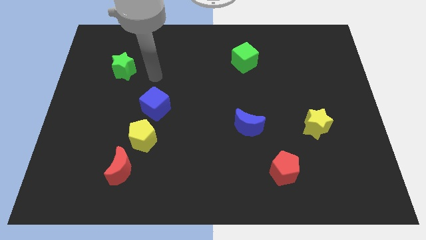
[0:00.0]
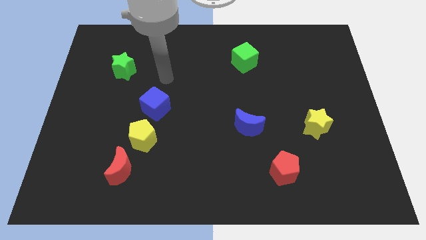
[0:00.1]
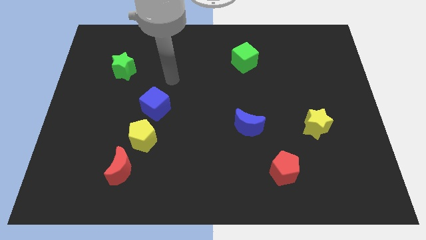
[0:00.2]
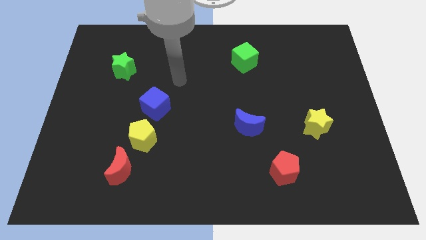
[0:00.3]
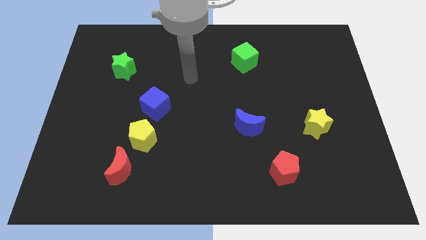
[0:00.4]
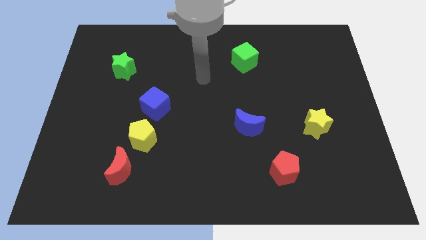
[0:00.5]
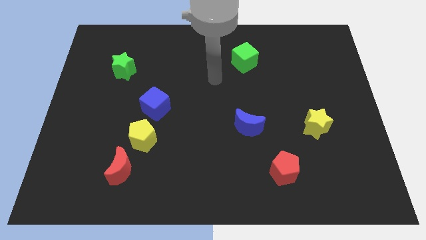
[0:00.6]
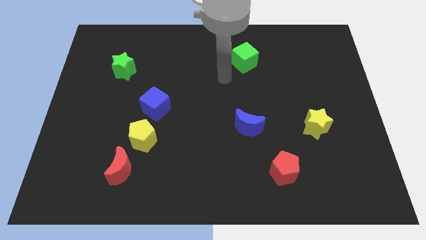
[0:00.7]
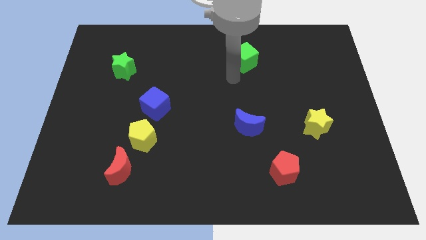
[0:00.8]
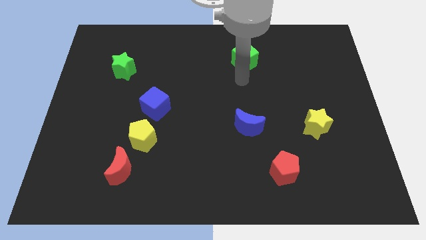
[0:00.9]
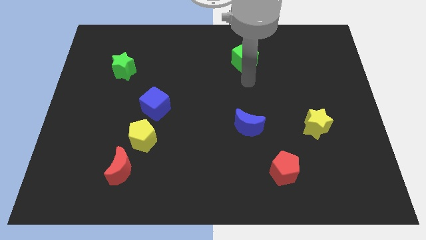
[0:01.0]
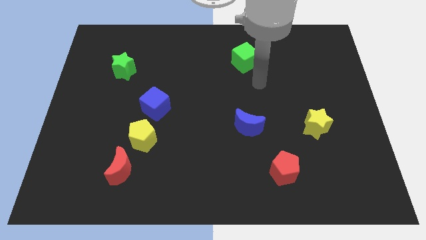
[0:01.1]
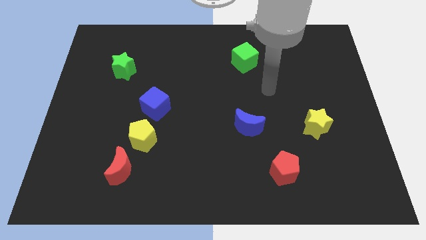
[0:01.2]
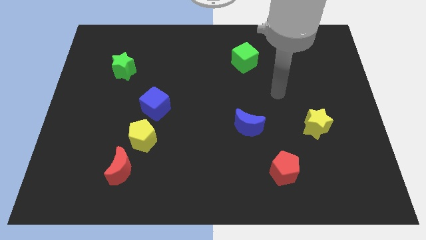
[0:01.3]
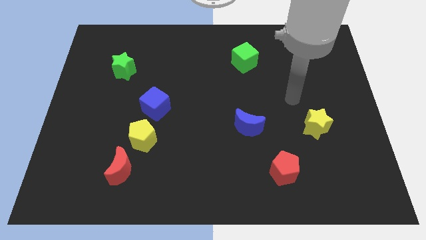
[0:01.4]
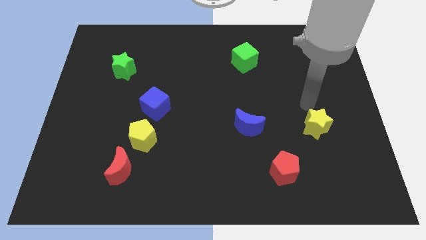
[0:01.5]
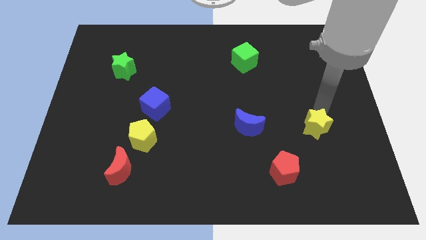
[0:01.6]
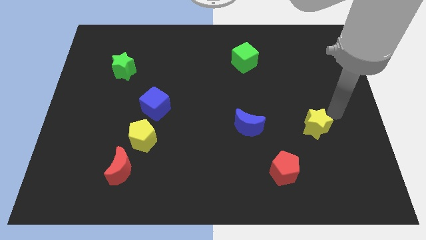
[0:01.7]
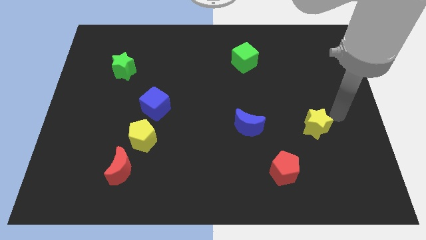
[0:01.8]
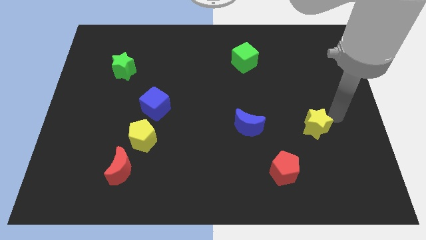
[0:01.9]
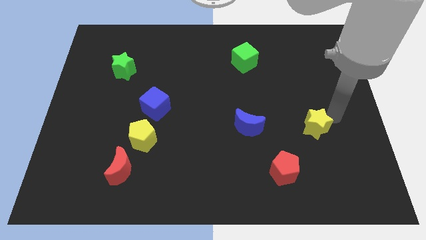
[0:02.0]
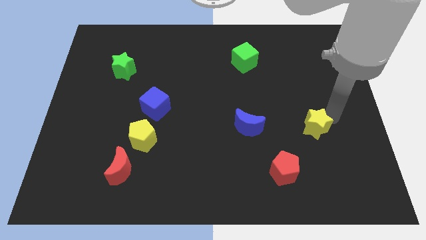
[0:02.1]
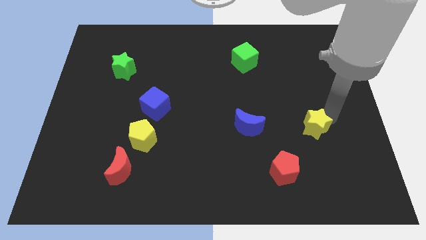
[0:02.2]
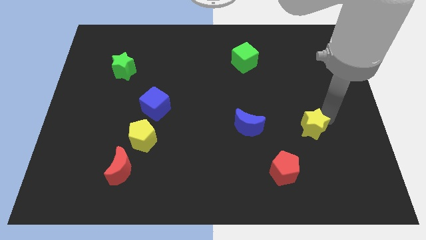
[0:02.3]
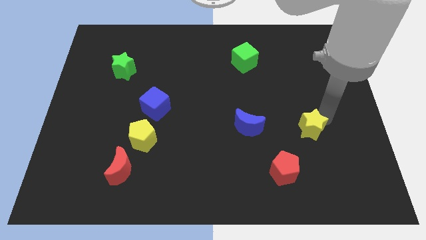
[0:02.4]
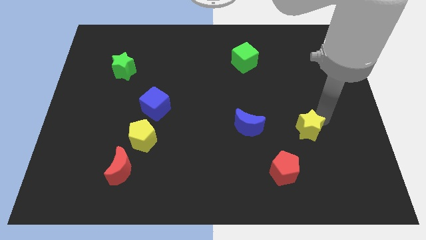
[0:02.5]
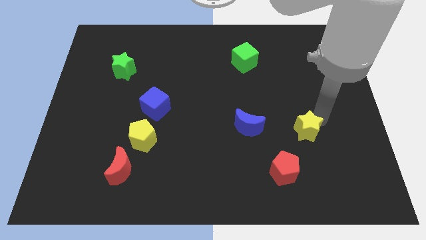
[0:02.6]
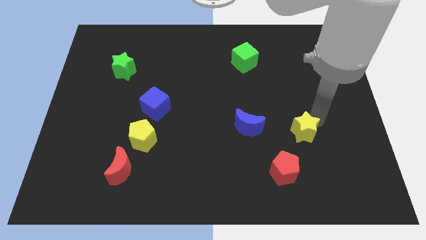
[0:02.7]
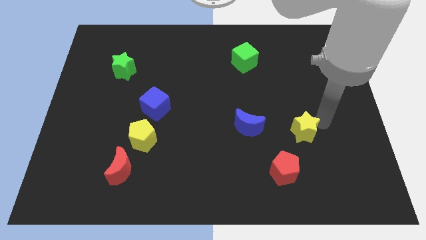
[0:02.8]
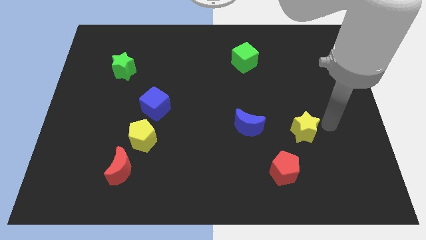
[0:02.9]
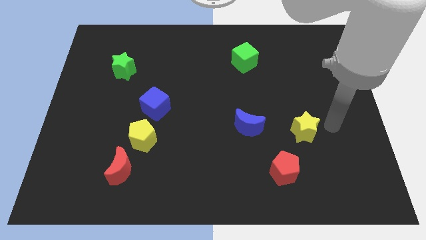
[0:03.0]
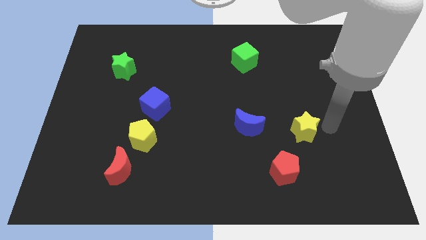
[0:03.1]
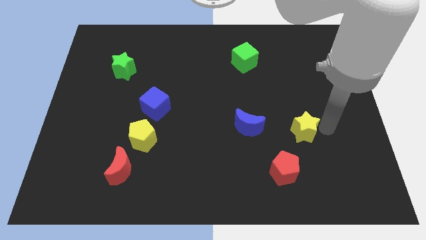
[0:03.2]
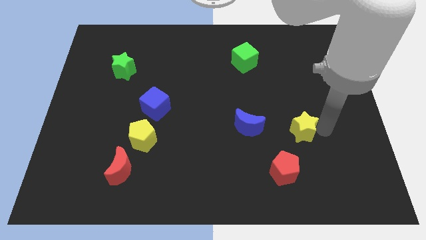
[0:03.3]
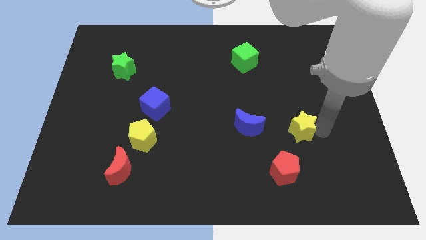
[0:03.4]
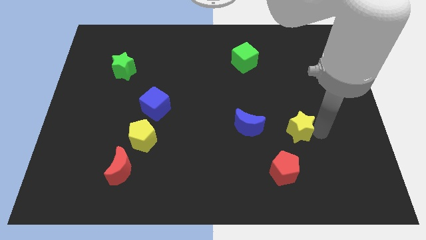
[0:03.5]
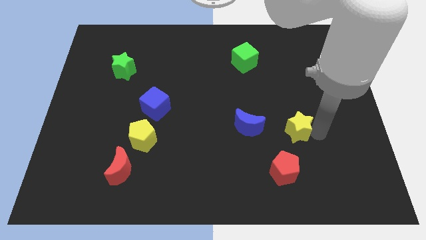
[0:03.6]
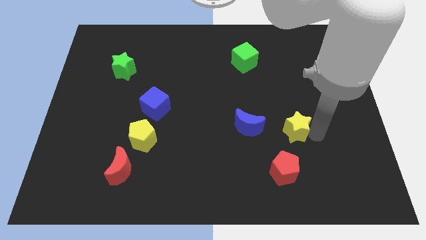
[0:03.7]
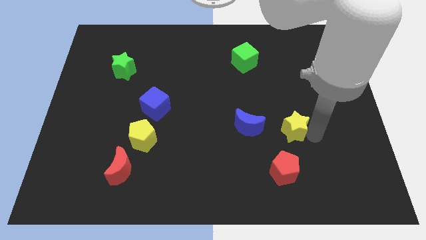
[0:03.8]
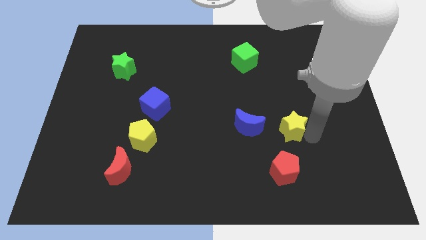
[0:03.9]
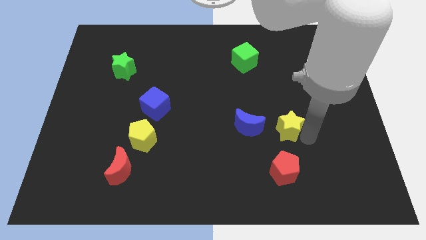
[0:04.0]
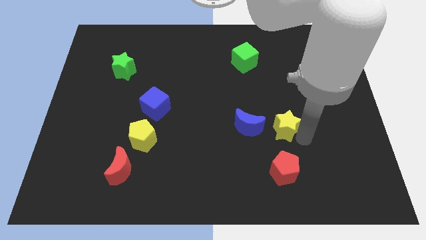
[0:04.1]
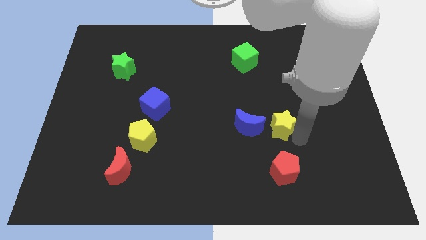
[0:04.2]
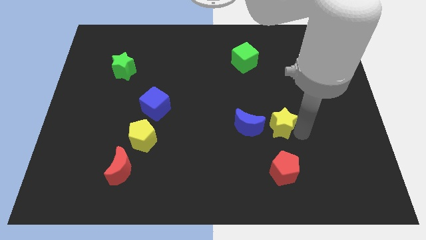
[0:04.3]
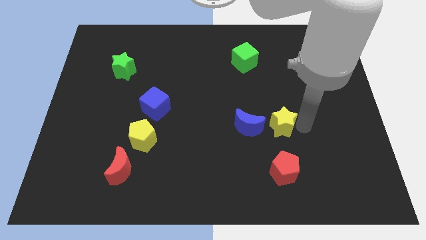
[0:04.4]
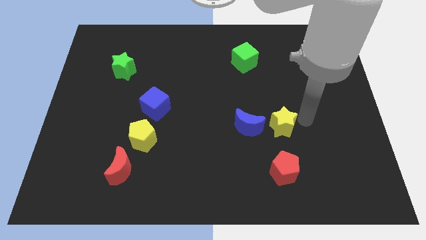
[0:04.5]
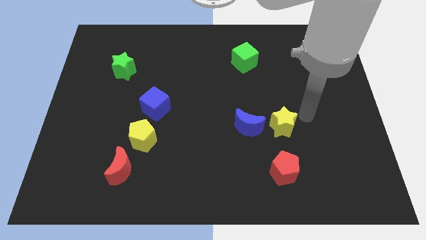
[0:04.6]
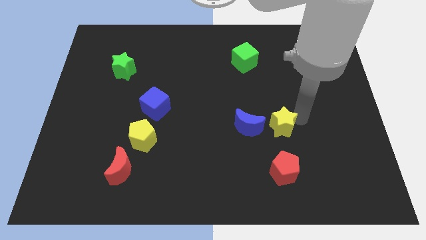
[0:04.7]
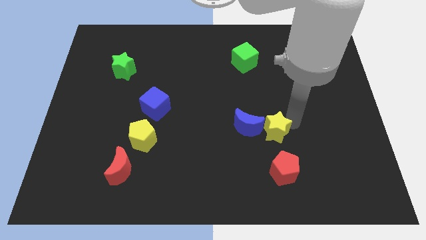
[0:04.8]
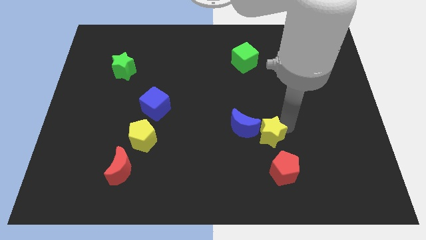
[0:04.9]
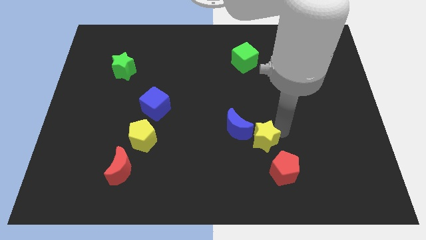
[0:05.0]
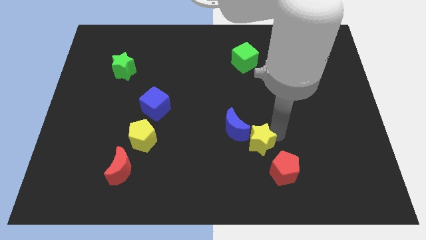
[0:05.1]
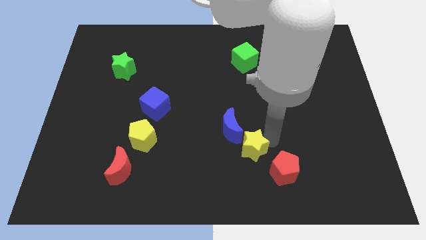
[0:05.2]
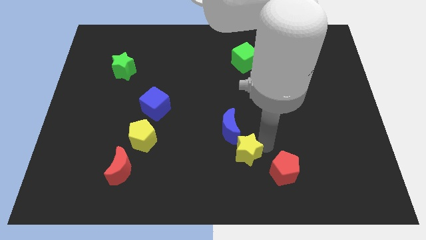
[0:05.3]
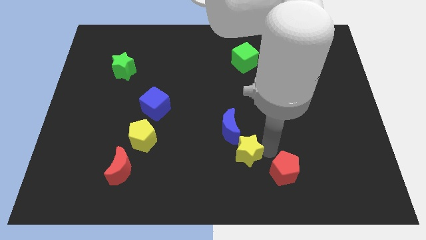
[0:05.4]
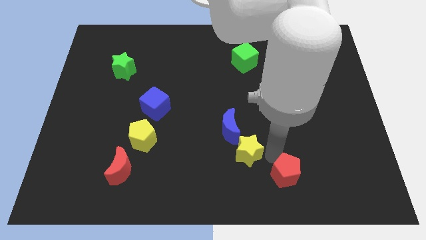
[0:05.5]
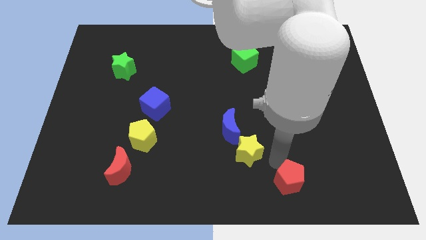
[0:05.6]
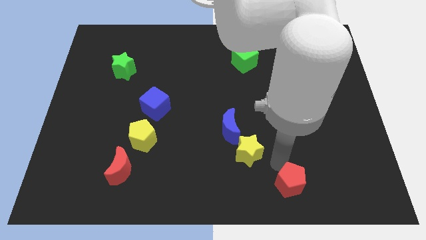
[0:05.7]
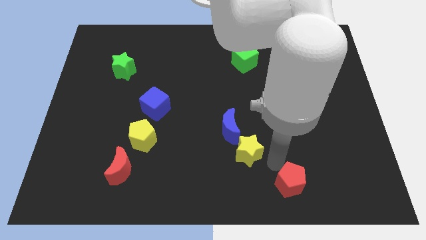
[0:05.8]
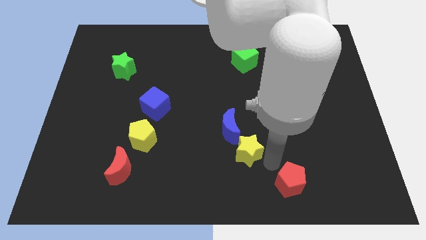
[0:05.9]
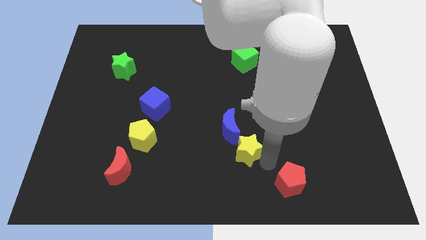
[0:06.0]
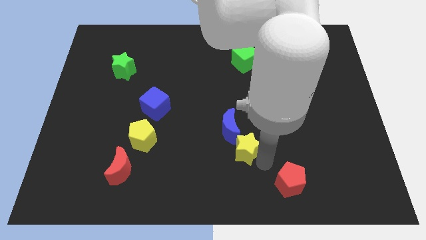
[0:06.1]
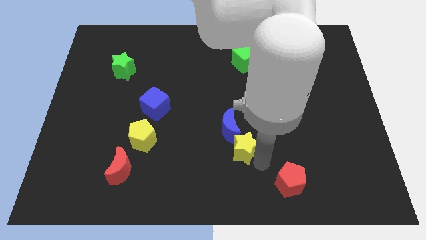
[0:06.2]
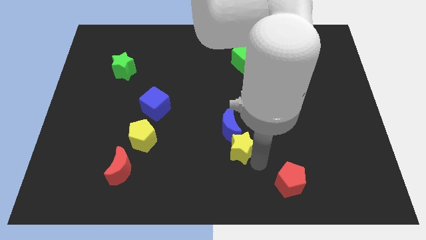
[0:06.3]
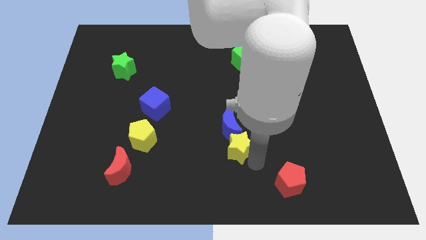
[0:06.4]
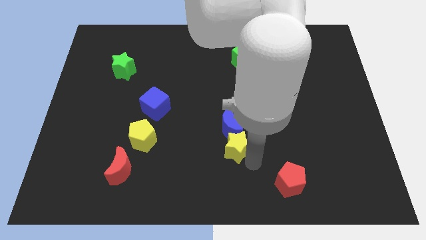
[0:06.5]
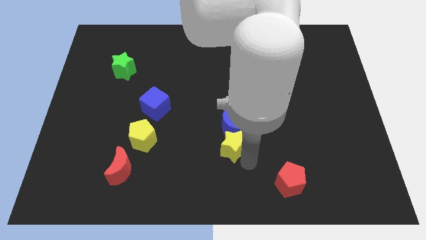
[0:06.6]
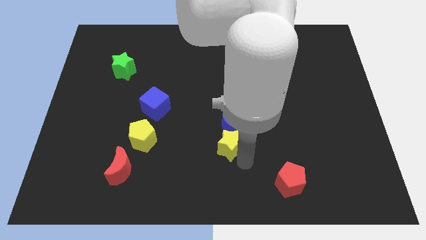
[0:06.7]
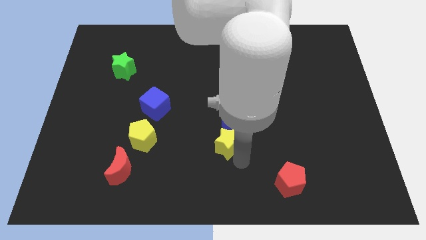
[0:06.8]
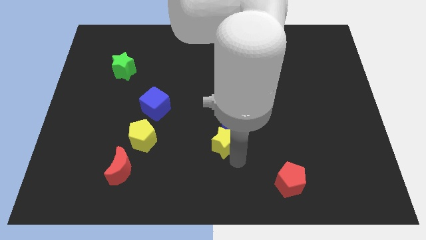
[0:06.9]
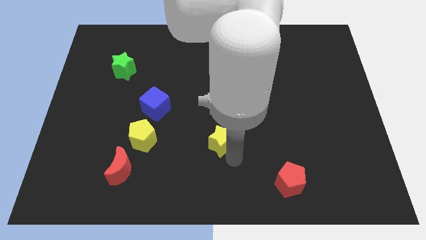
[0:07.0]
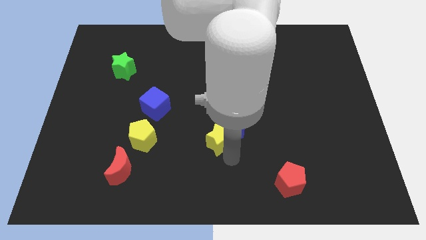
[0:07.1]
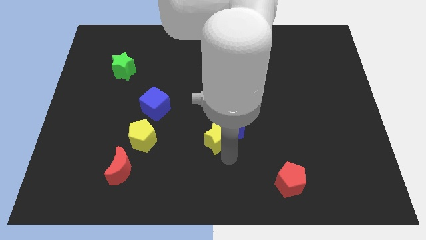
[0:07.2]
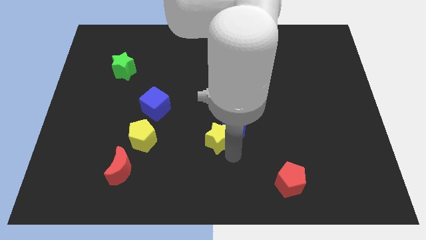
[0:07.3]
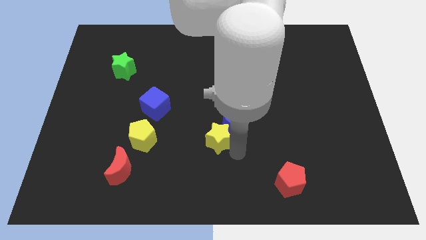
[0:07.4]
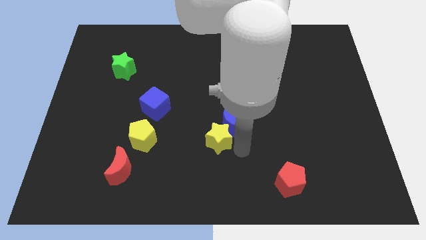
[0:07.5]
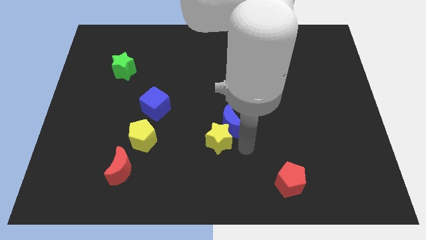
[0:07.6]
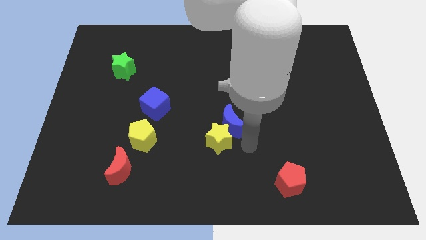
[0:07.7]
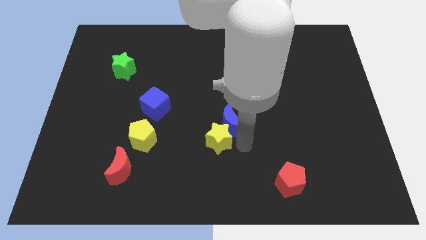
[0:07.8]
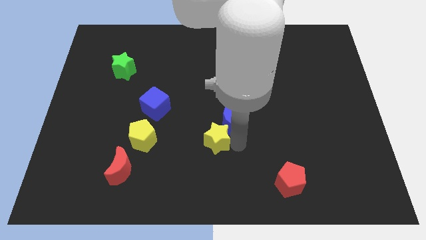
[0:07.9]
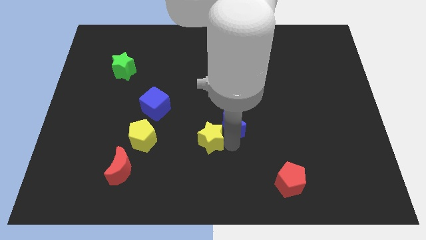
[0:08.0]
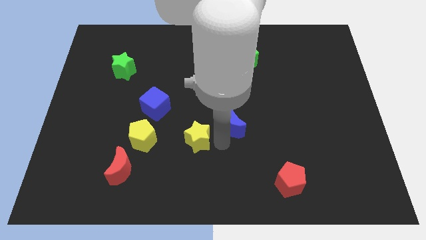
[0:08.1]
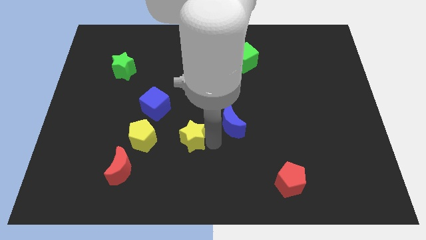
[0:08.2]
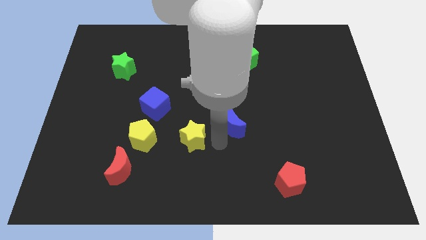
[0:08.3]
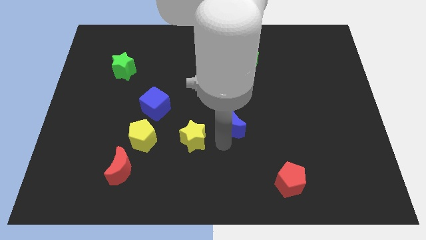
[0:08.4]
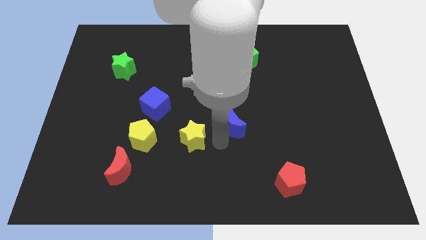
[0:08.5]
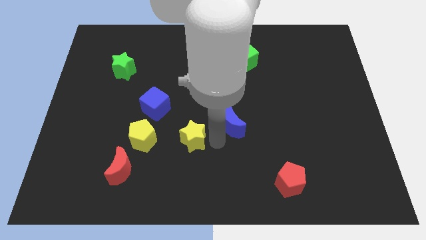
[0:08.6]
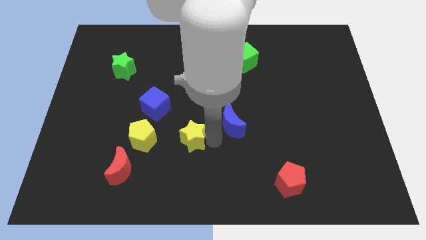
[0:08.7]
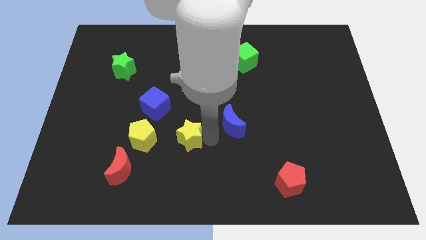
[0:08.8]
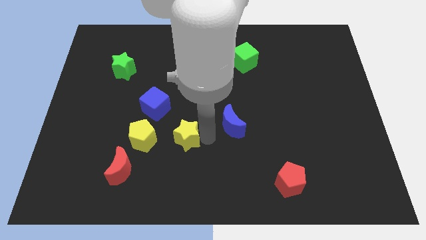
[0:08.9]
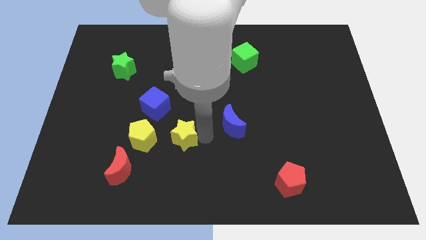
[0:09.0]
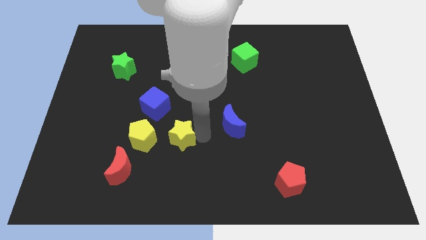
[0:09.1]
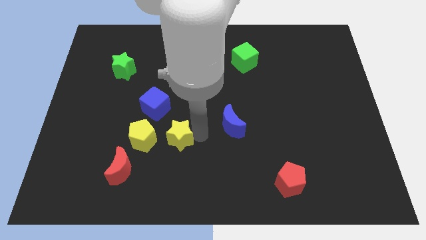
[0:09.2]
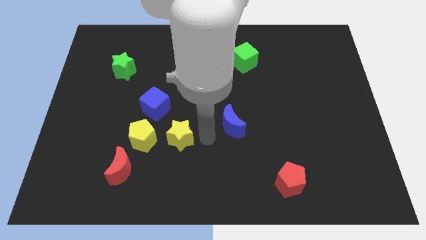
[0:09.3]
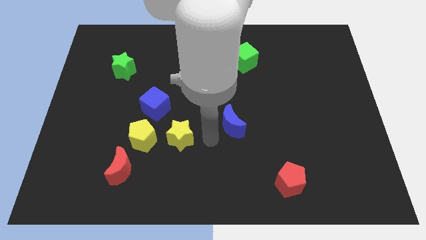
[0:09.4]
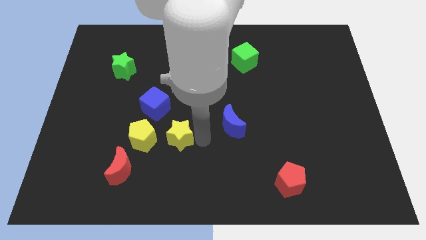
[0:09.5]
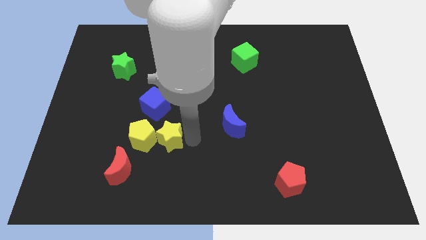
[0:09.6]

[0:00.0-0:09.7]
slide the yellow star to the yellow pentagon
